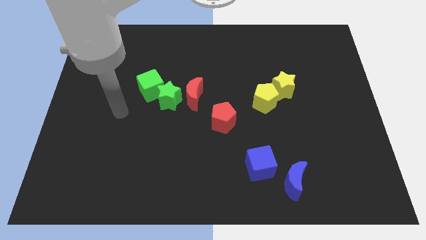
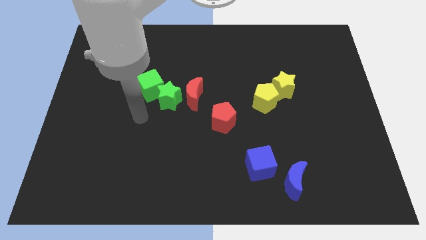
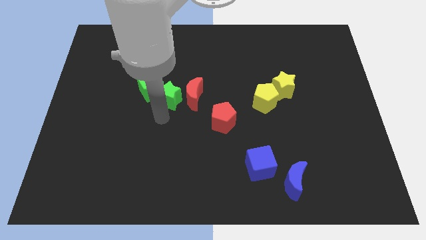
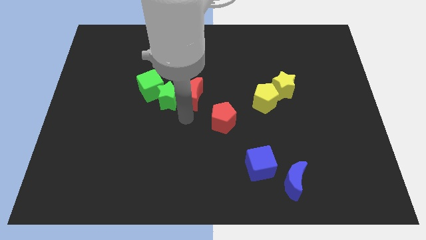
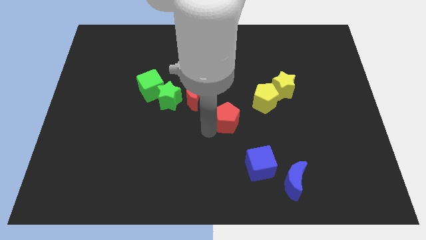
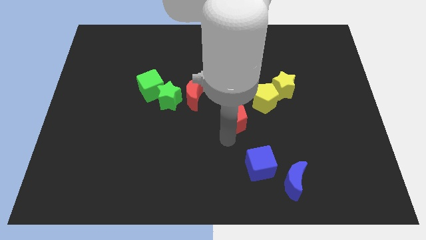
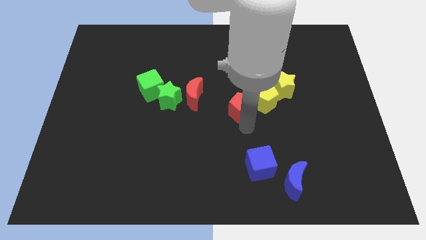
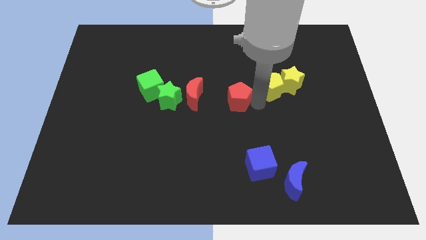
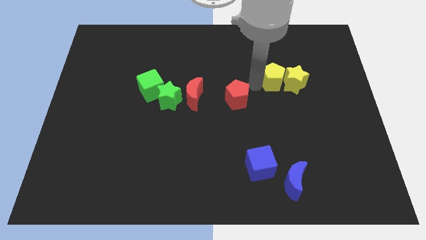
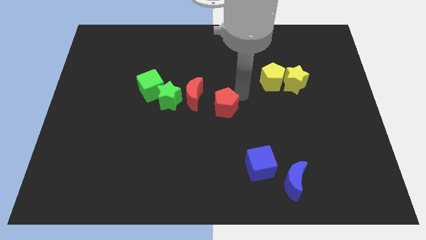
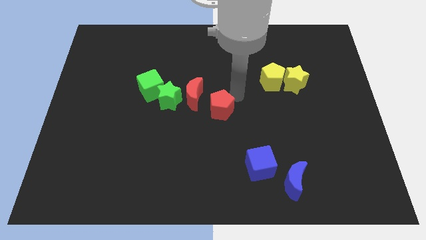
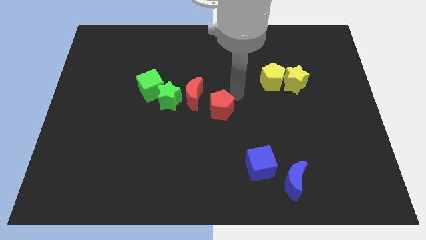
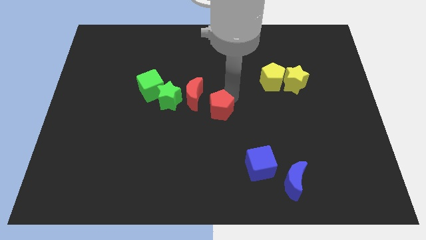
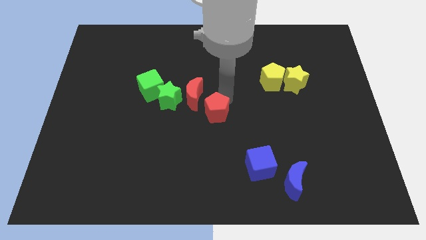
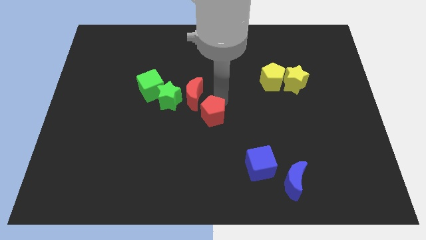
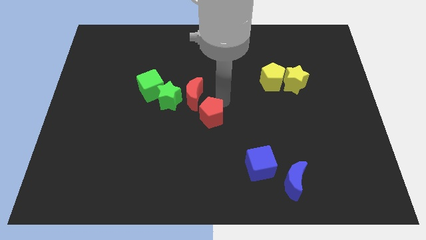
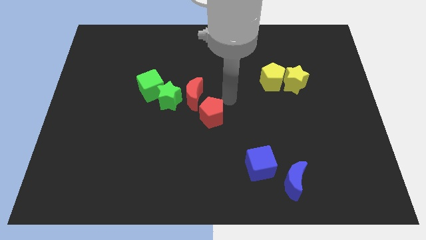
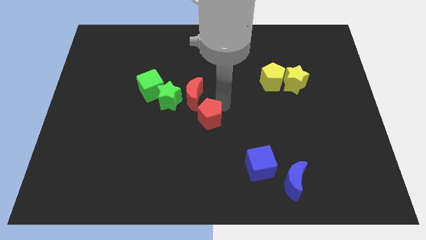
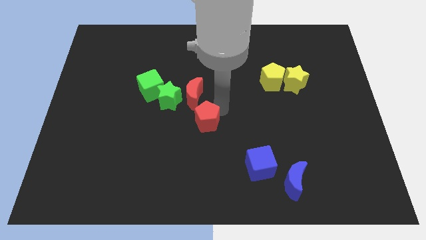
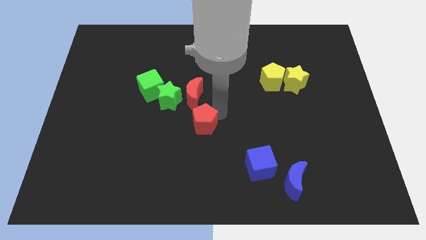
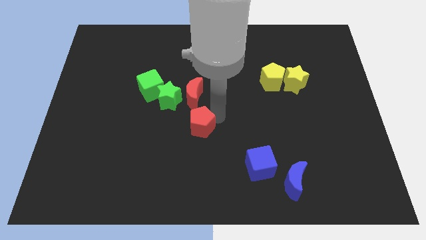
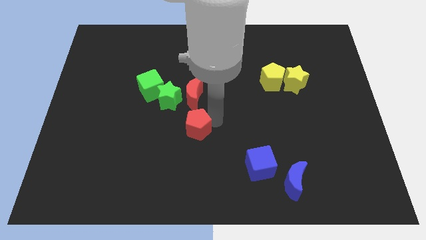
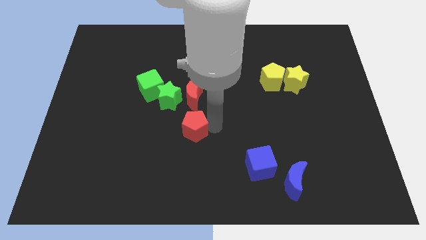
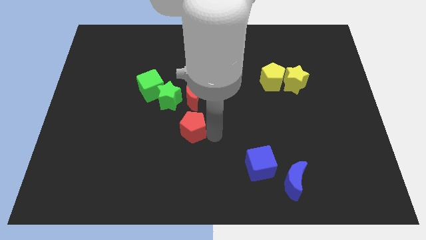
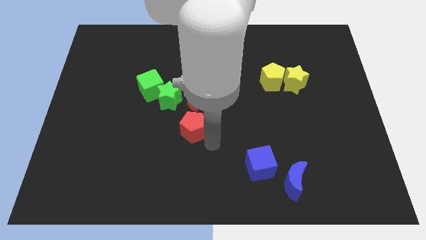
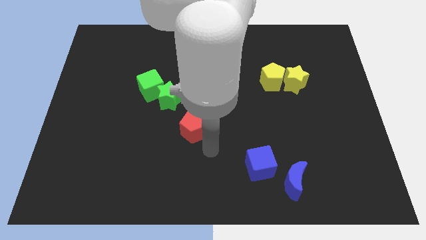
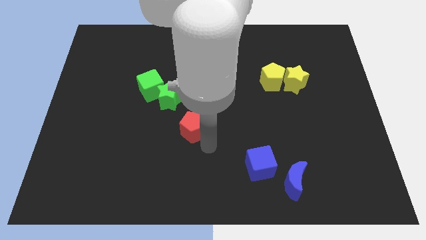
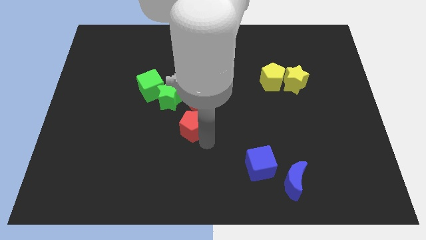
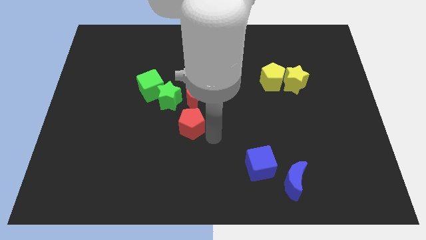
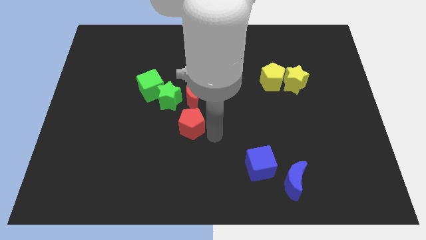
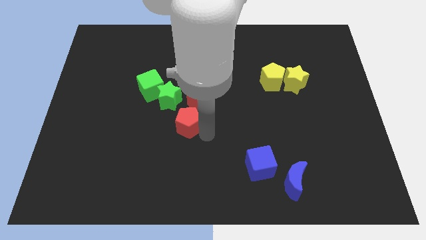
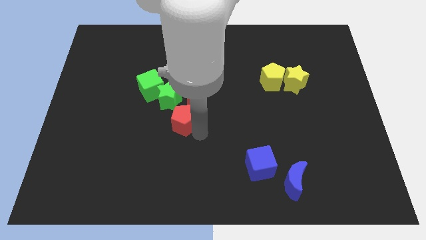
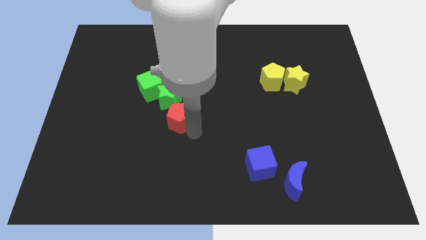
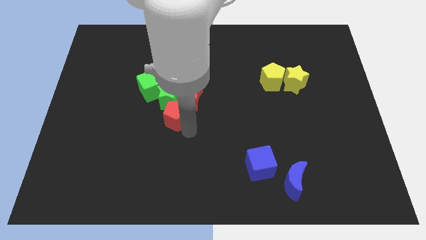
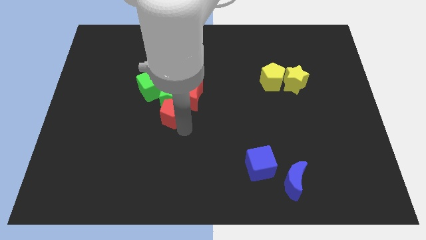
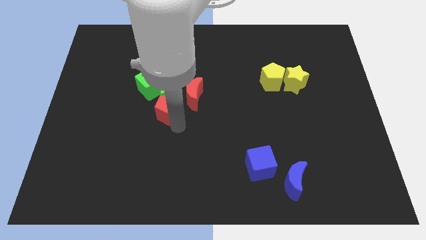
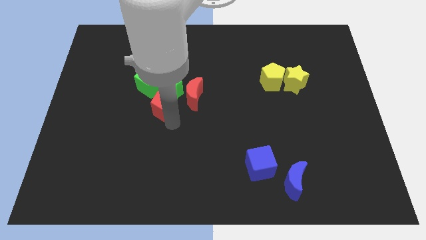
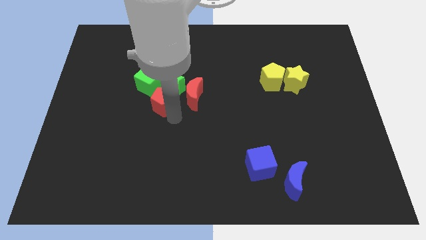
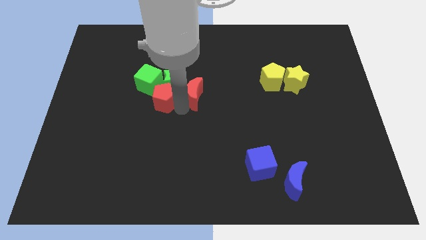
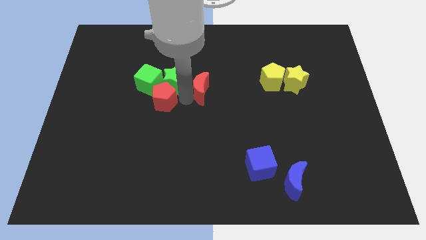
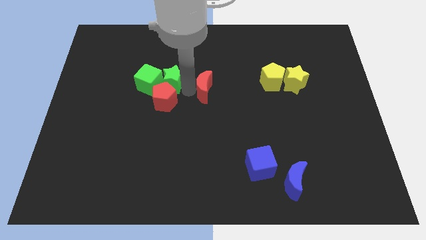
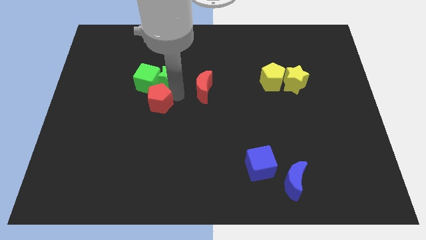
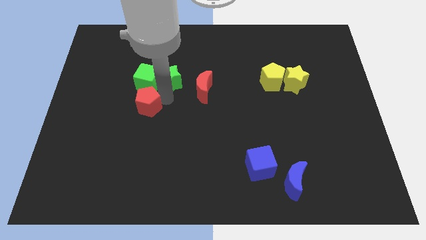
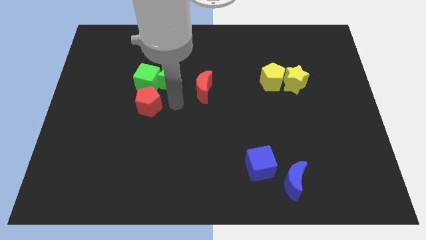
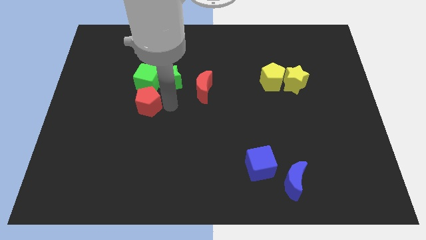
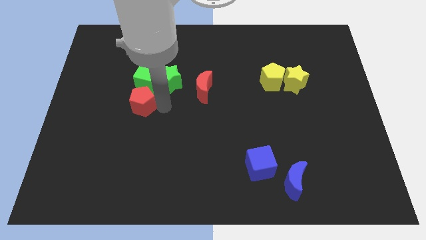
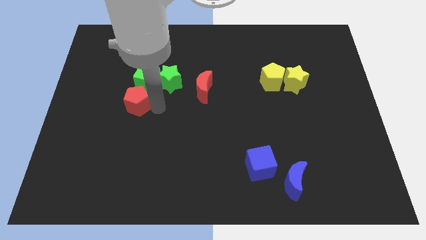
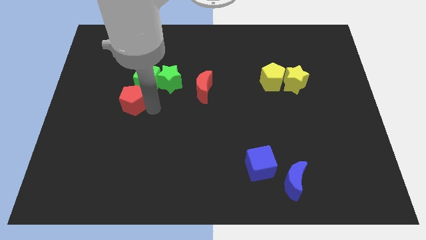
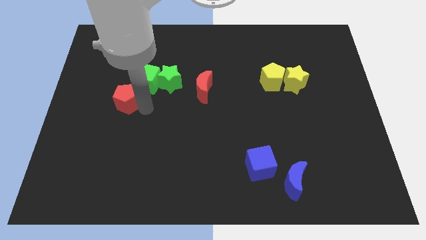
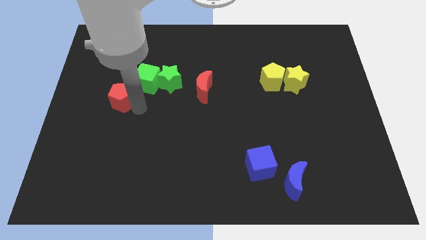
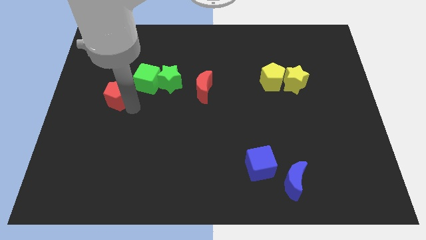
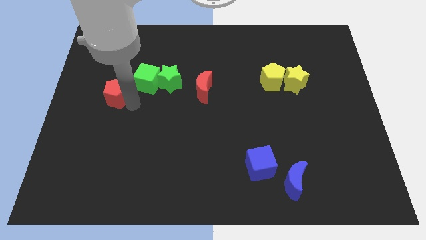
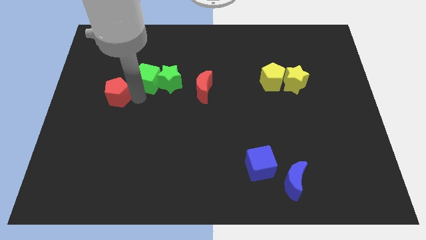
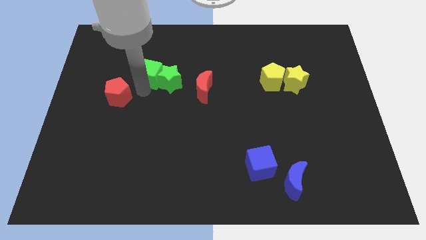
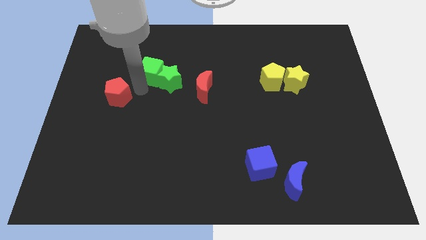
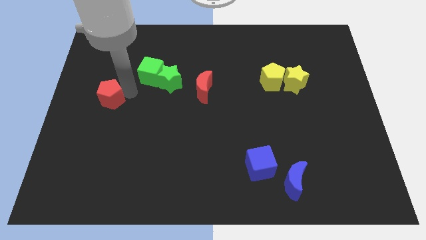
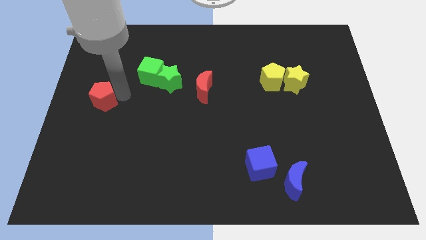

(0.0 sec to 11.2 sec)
put the red pentagon to the left side of the board

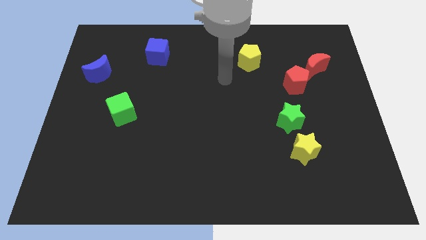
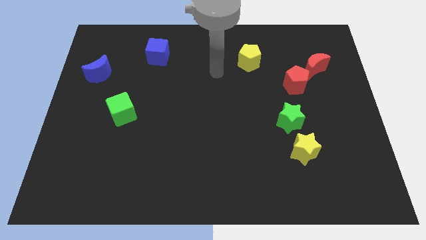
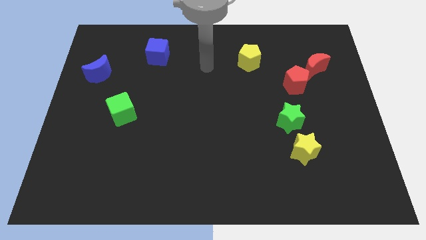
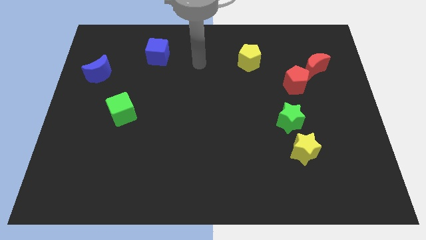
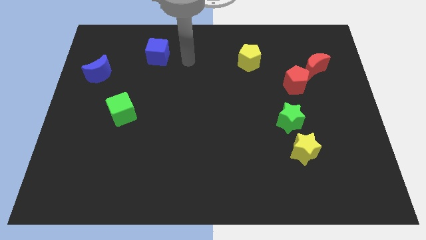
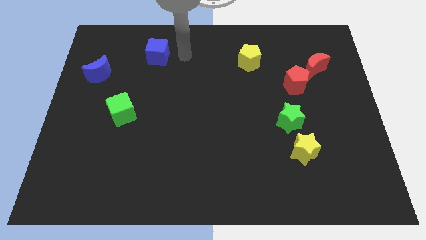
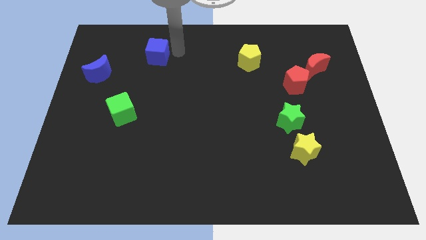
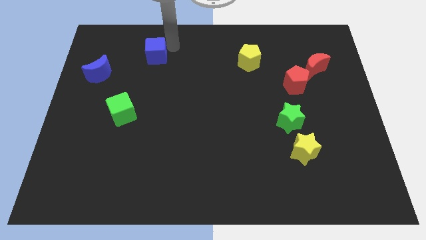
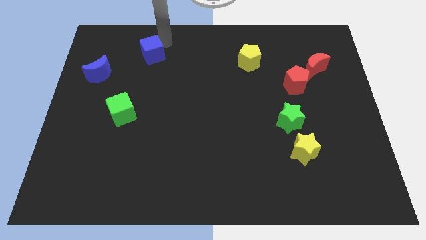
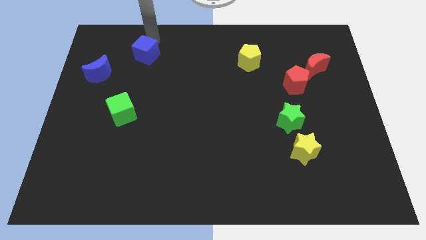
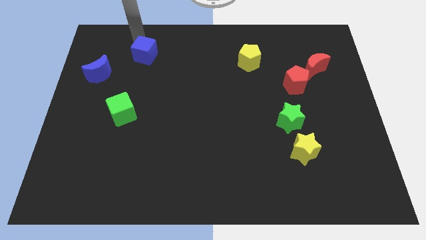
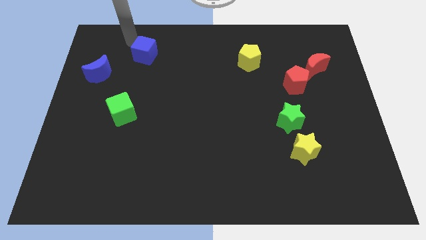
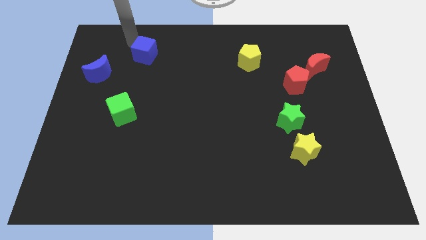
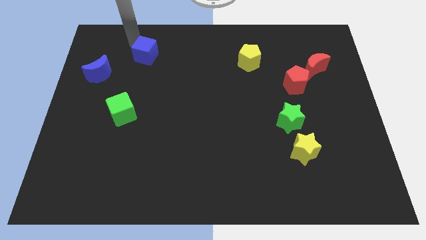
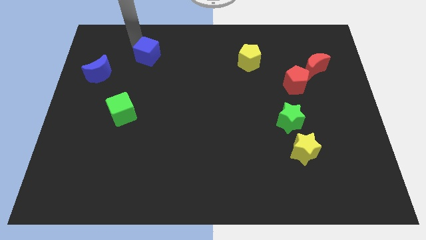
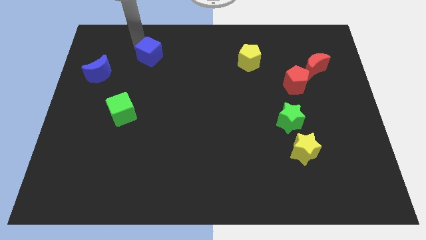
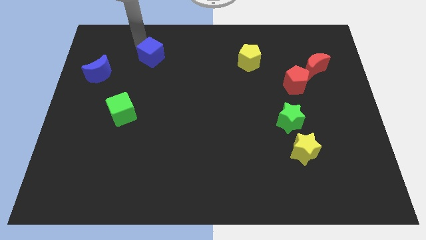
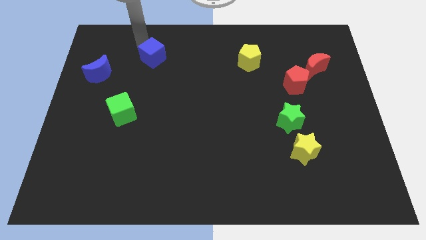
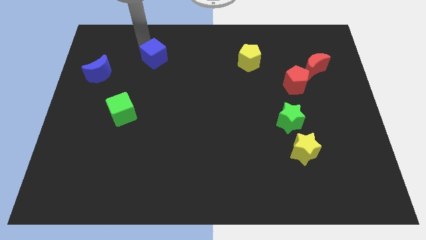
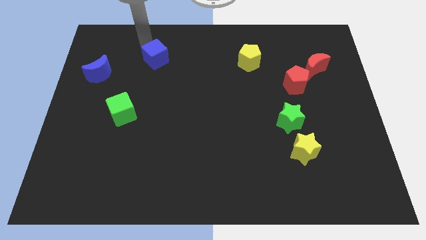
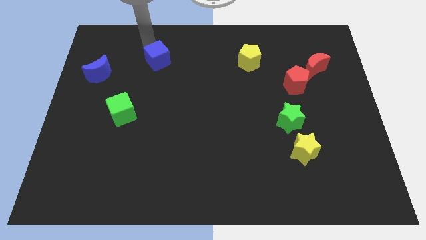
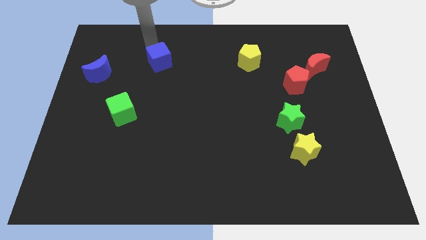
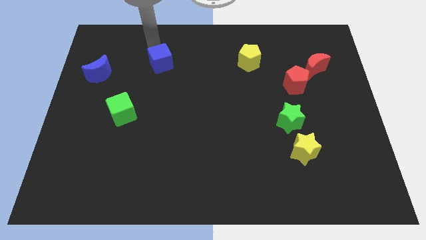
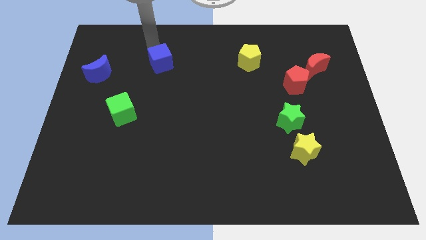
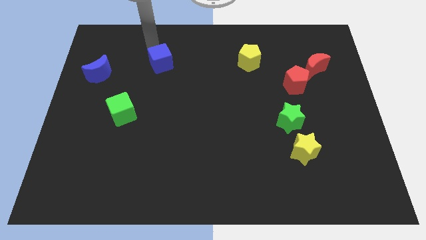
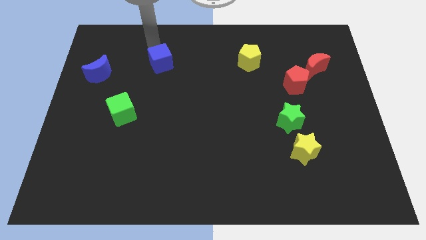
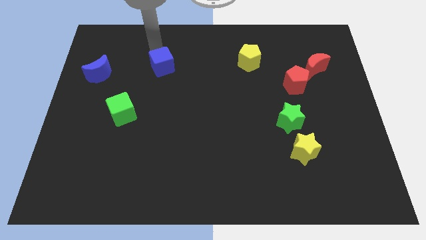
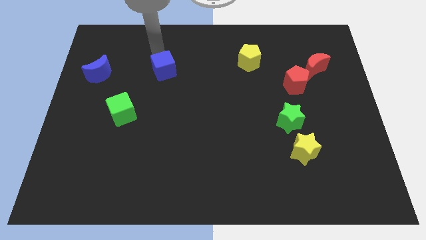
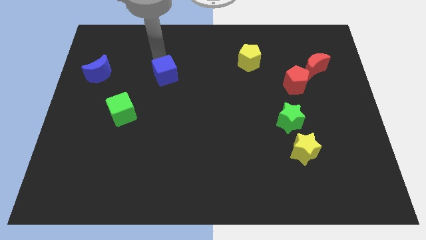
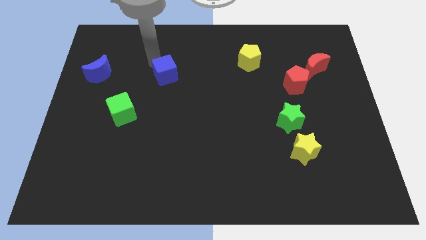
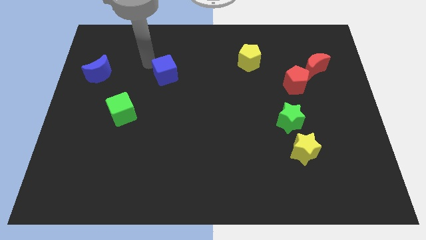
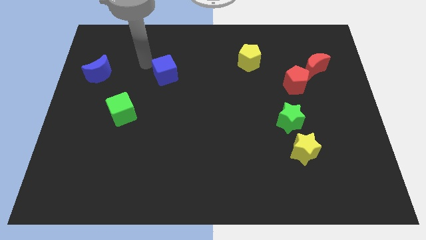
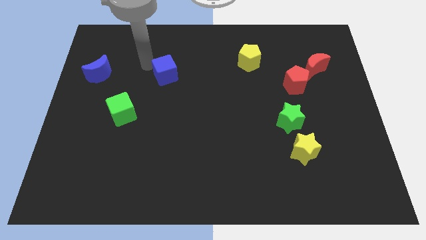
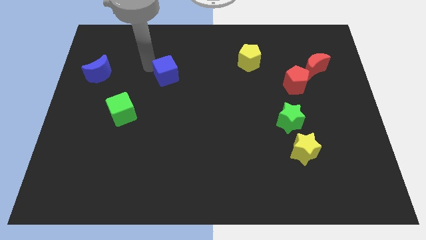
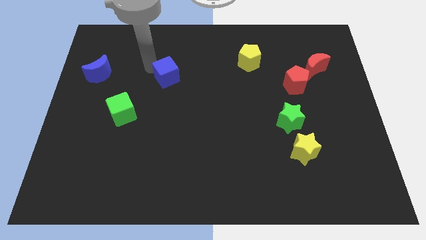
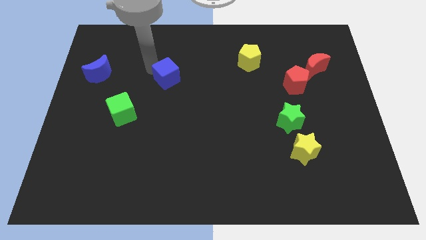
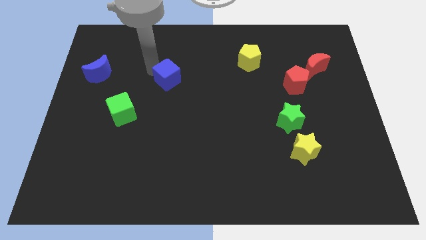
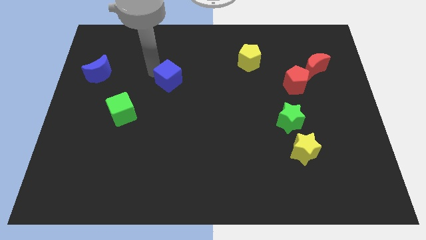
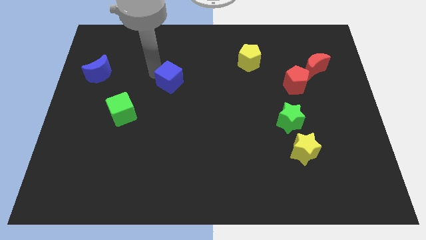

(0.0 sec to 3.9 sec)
move the blue cube to the middle
